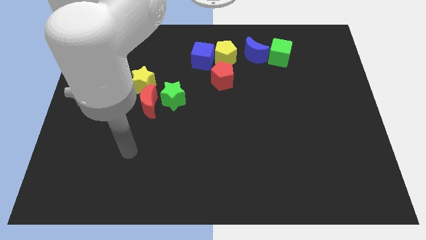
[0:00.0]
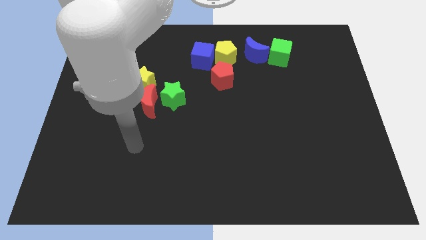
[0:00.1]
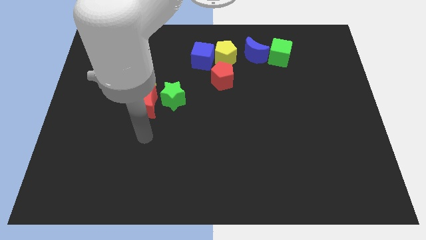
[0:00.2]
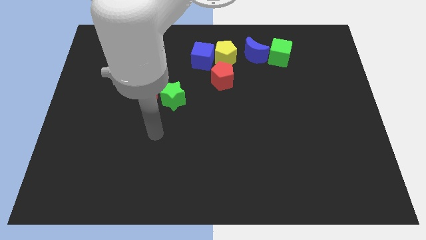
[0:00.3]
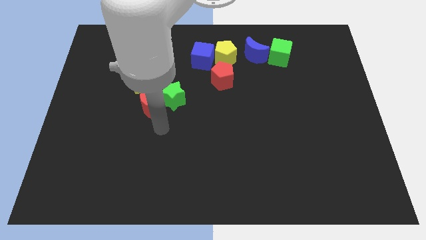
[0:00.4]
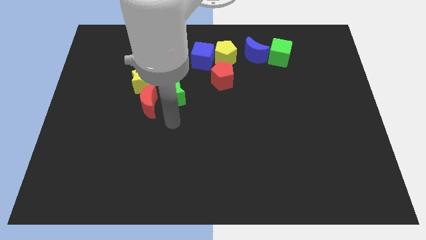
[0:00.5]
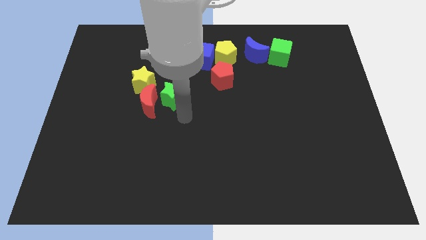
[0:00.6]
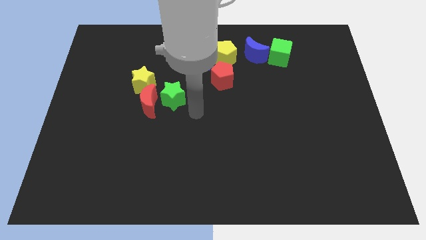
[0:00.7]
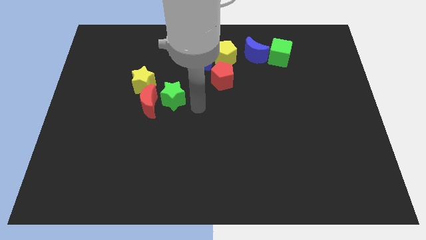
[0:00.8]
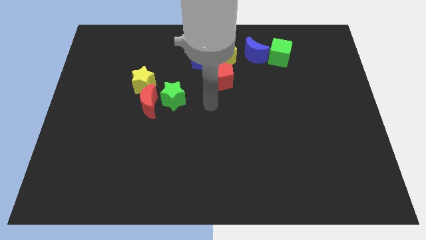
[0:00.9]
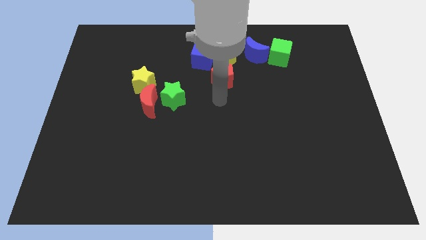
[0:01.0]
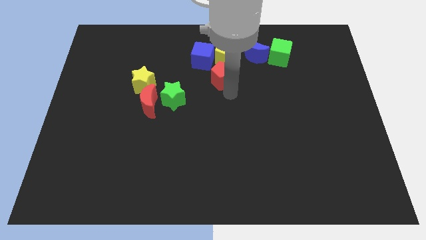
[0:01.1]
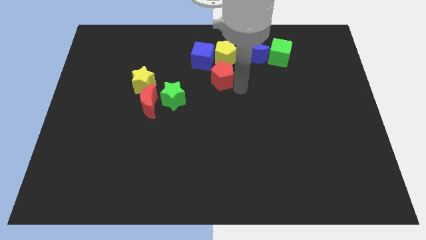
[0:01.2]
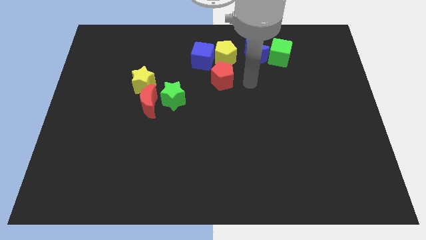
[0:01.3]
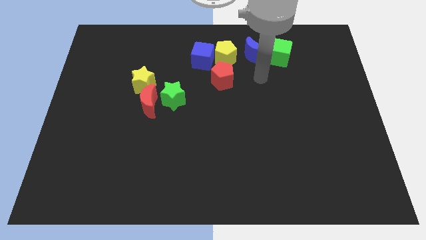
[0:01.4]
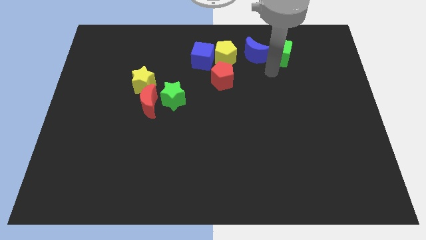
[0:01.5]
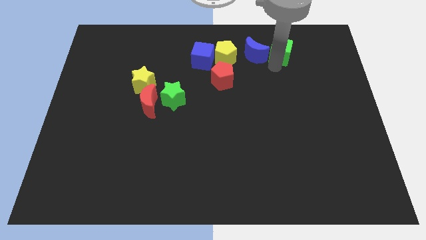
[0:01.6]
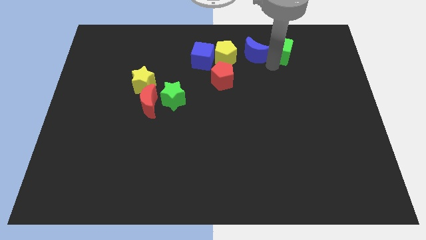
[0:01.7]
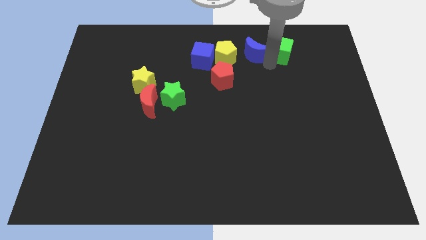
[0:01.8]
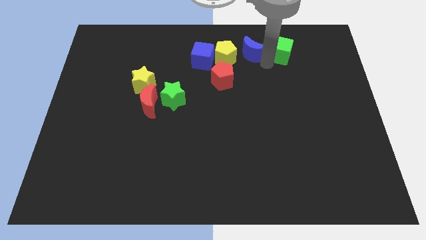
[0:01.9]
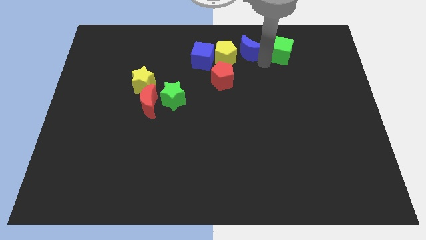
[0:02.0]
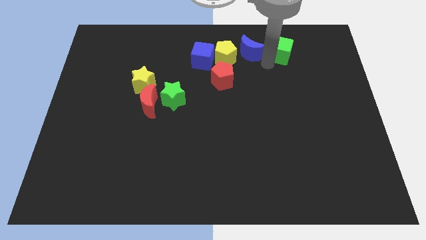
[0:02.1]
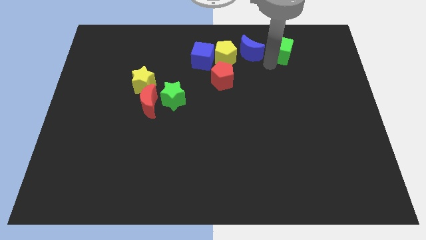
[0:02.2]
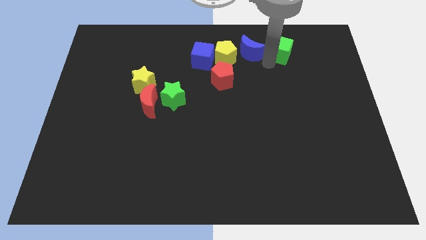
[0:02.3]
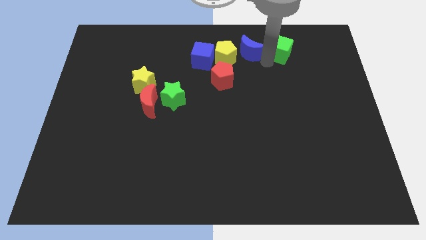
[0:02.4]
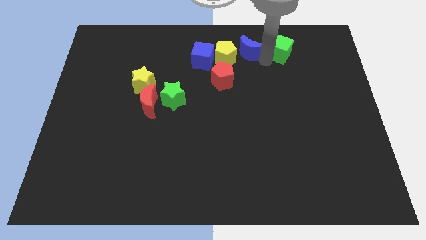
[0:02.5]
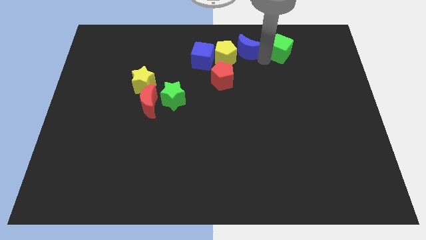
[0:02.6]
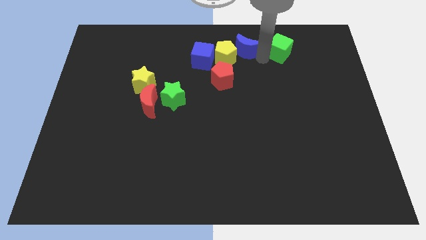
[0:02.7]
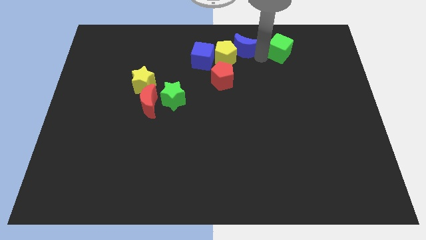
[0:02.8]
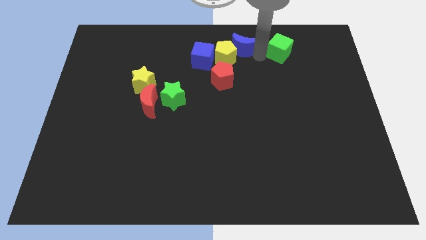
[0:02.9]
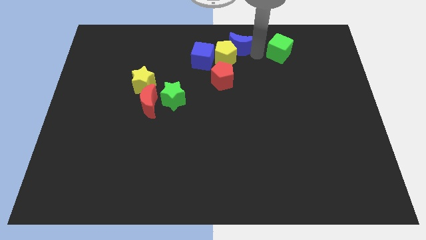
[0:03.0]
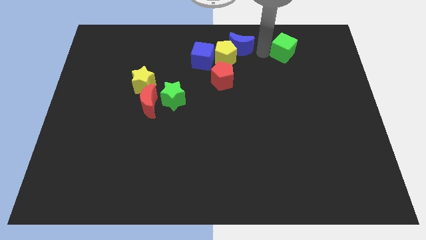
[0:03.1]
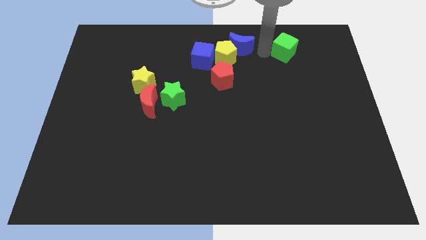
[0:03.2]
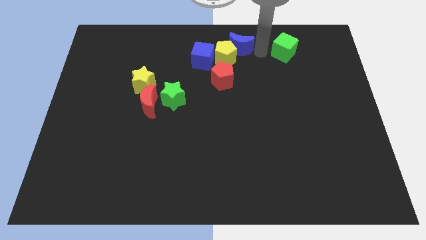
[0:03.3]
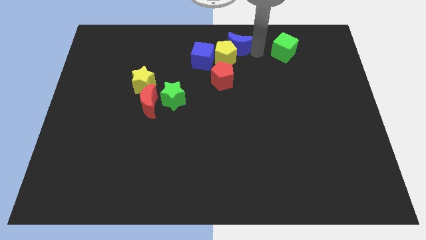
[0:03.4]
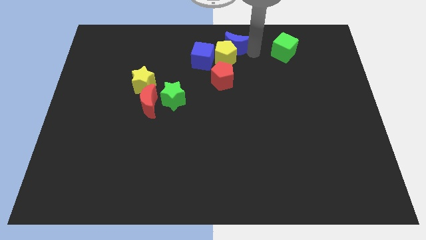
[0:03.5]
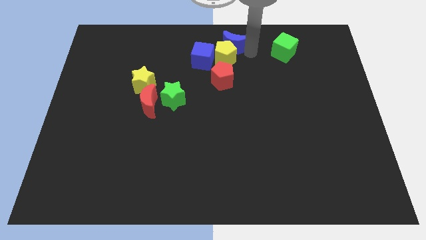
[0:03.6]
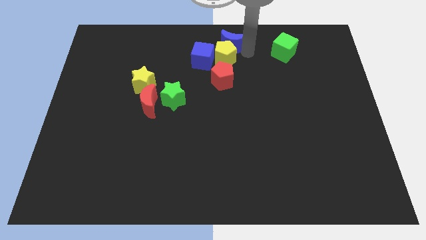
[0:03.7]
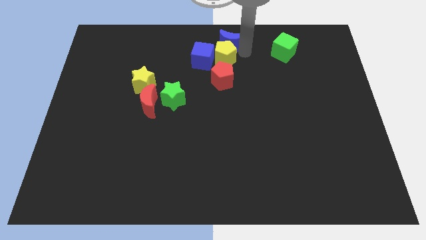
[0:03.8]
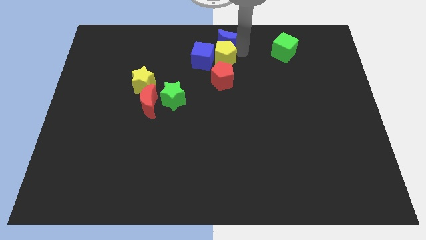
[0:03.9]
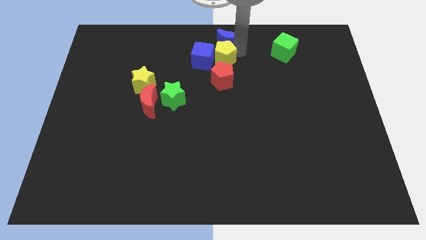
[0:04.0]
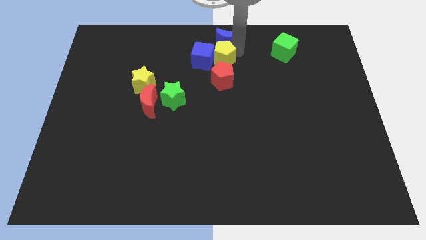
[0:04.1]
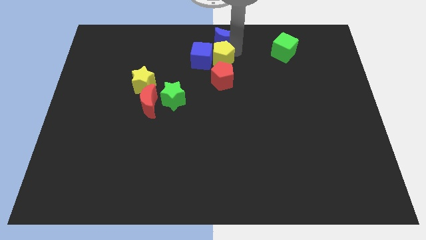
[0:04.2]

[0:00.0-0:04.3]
slide the blue moon a little to the left

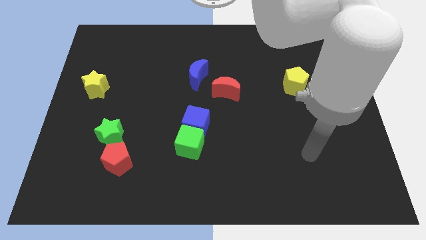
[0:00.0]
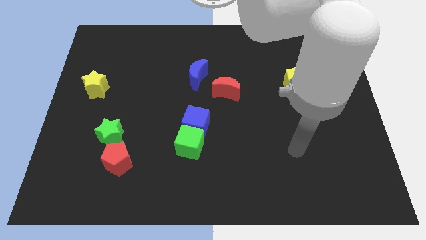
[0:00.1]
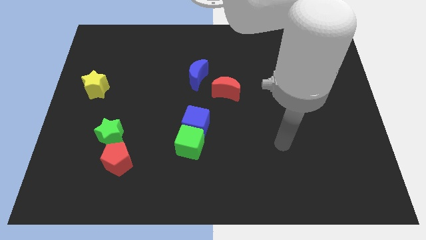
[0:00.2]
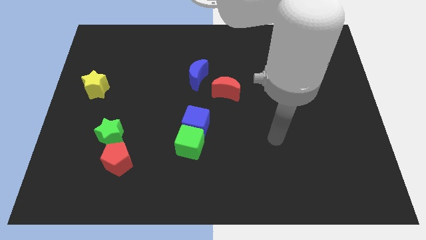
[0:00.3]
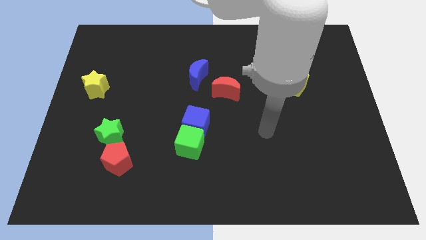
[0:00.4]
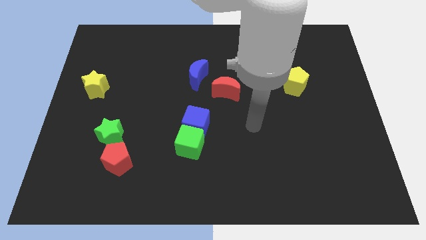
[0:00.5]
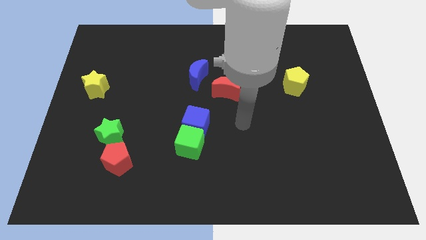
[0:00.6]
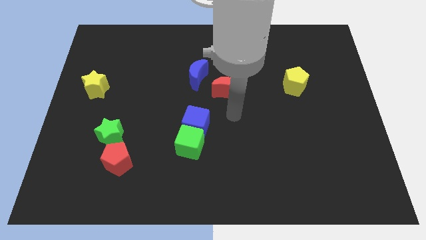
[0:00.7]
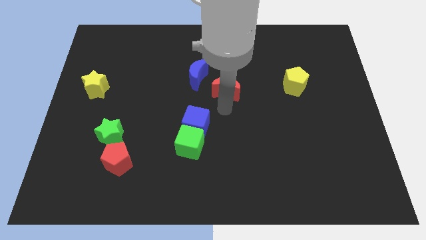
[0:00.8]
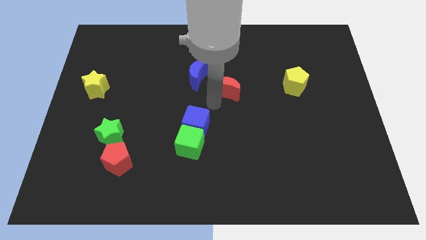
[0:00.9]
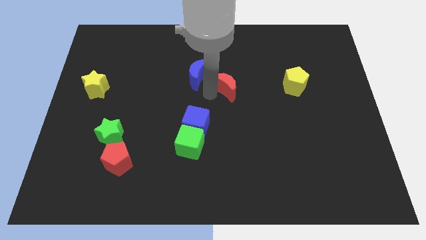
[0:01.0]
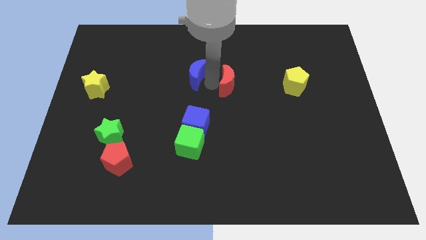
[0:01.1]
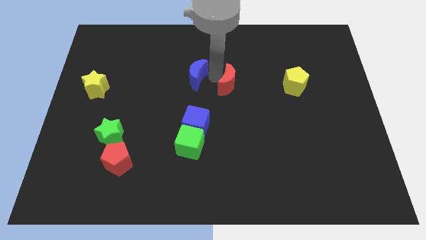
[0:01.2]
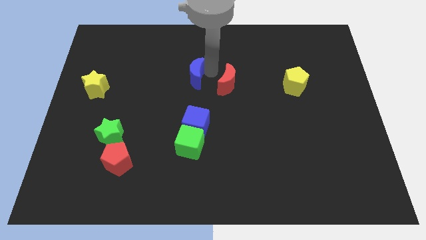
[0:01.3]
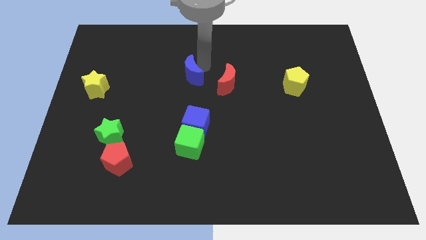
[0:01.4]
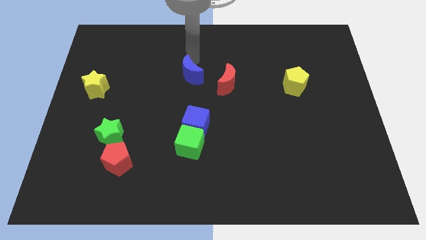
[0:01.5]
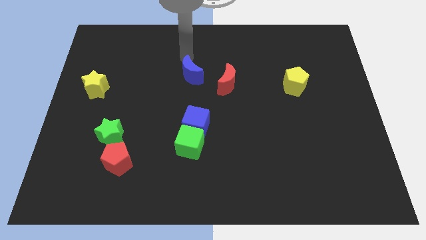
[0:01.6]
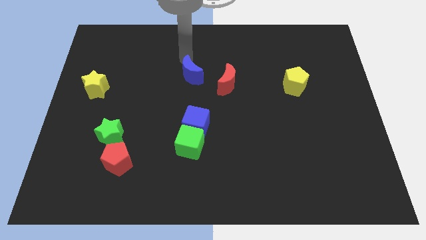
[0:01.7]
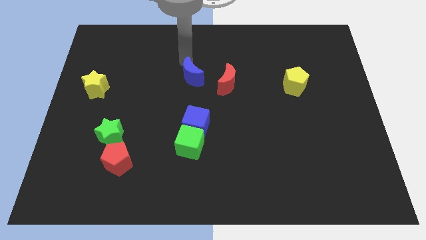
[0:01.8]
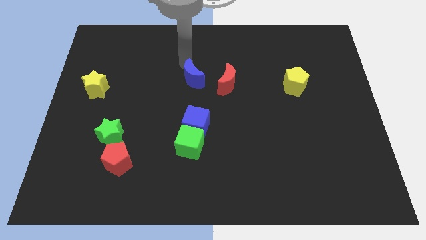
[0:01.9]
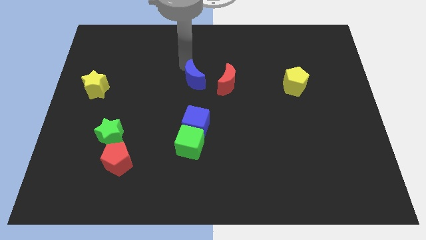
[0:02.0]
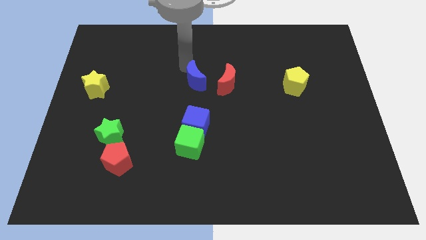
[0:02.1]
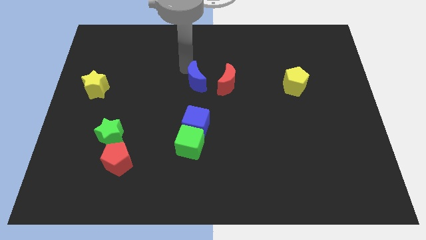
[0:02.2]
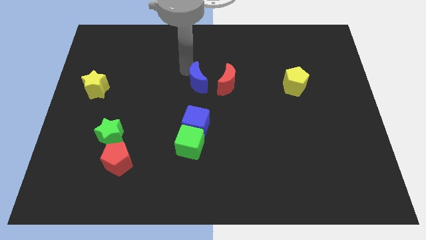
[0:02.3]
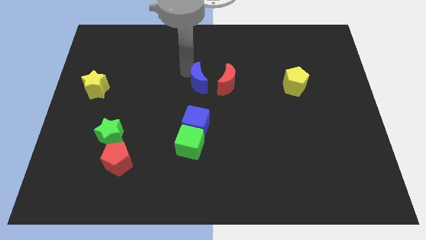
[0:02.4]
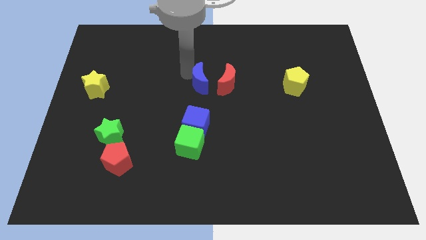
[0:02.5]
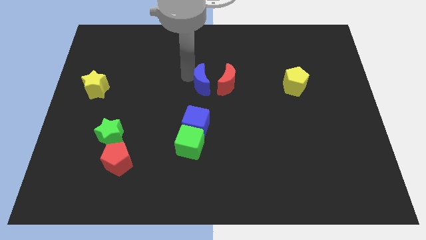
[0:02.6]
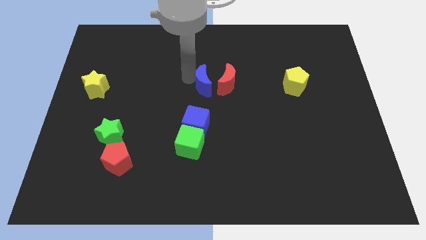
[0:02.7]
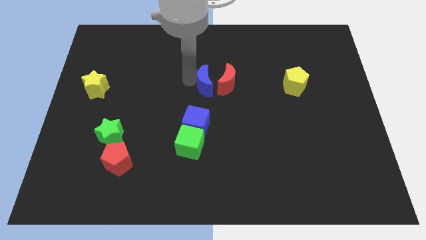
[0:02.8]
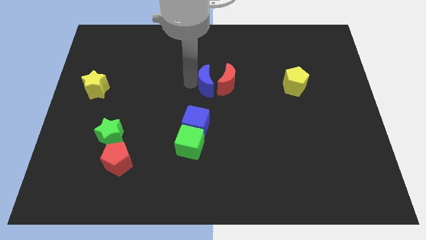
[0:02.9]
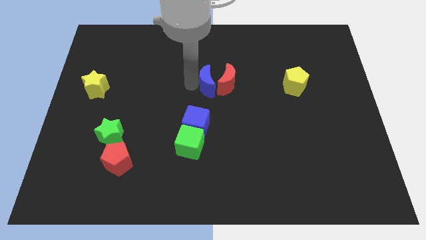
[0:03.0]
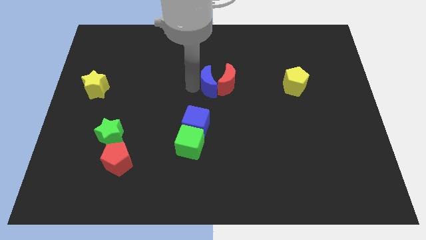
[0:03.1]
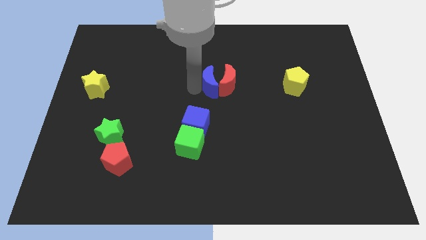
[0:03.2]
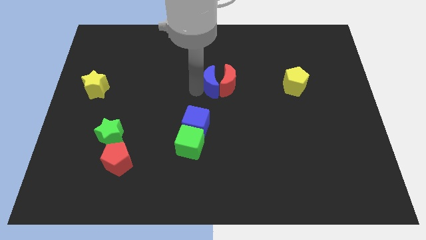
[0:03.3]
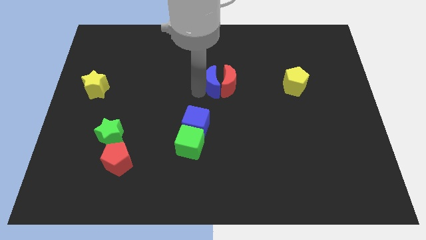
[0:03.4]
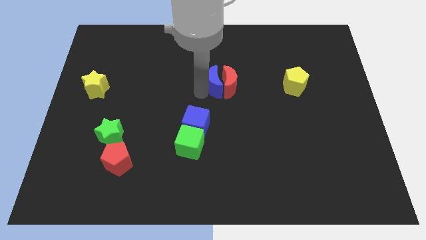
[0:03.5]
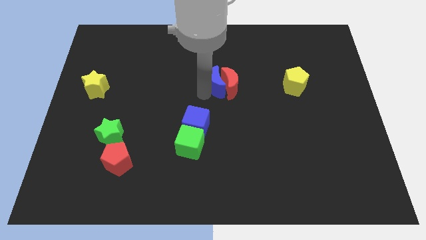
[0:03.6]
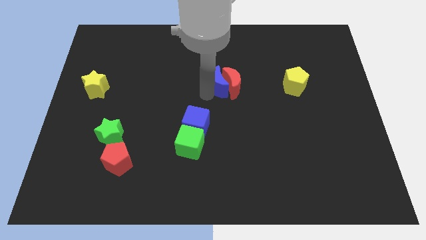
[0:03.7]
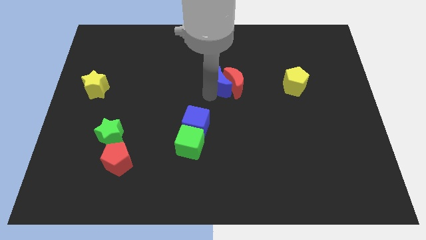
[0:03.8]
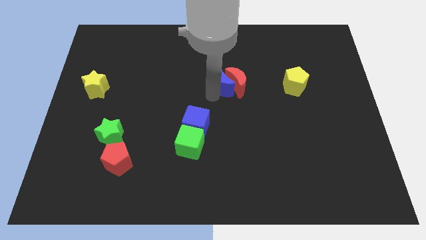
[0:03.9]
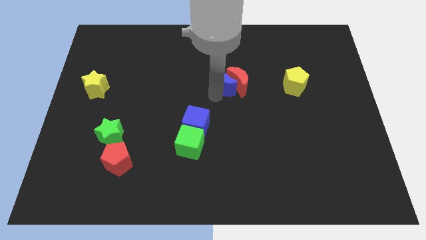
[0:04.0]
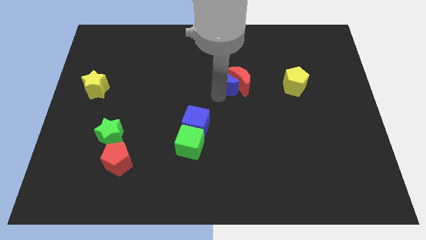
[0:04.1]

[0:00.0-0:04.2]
move the blue moon a little bit down and to the right
